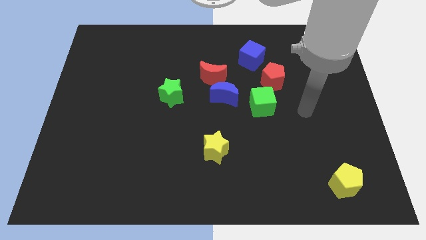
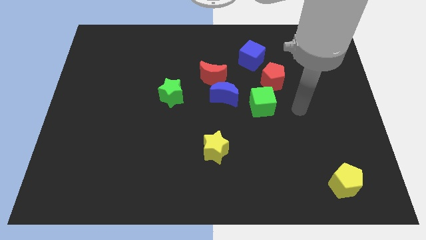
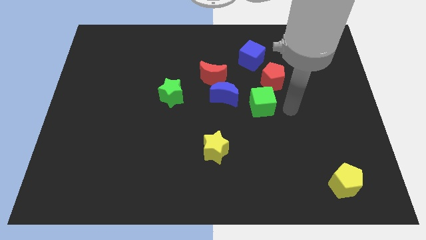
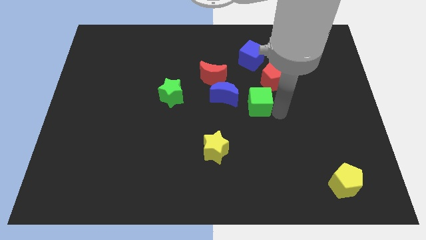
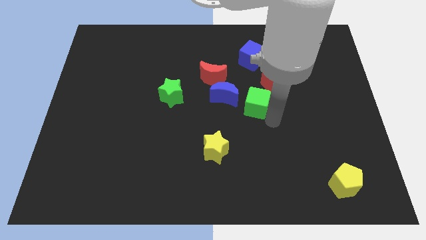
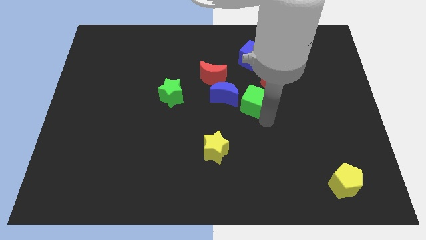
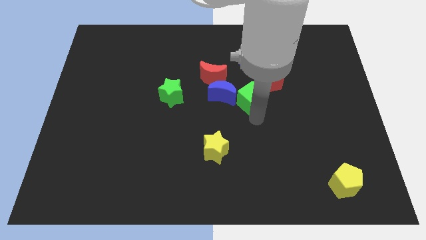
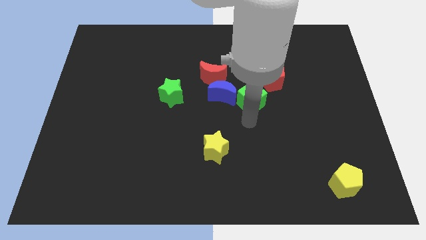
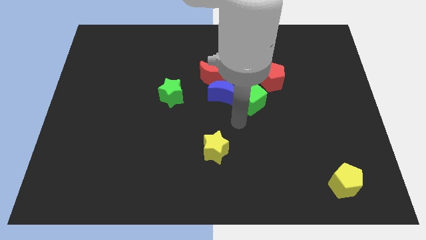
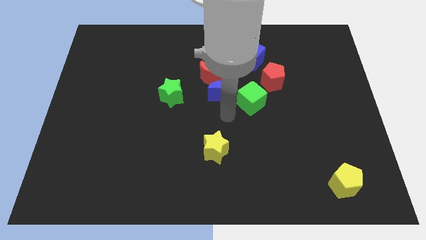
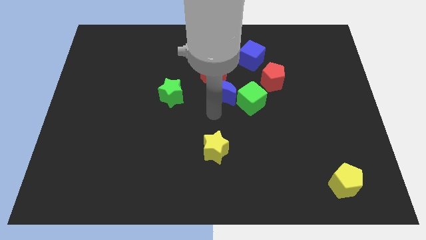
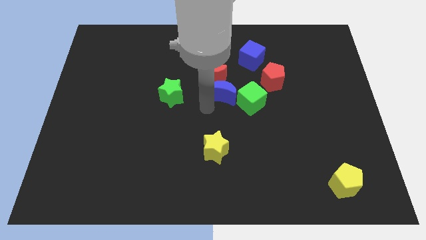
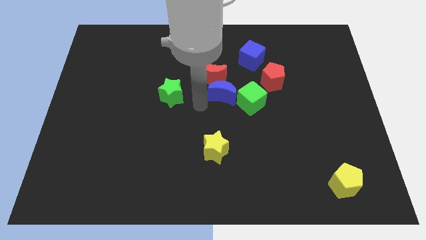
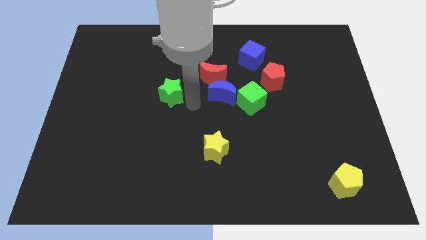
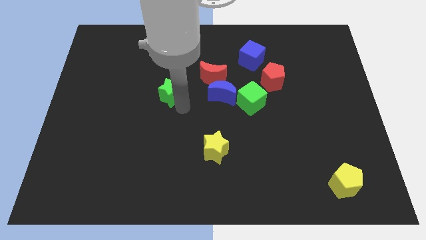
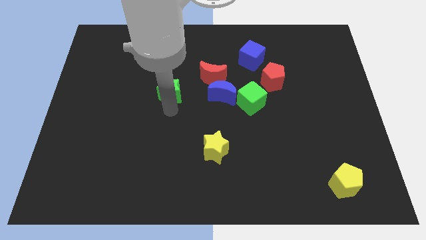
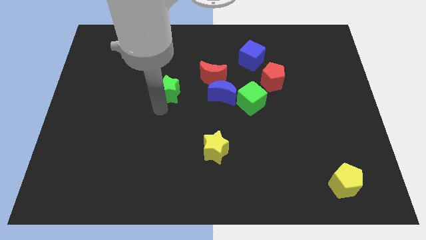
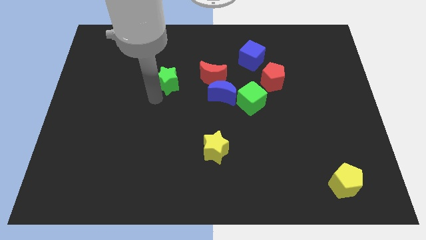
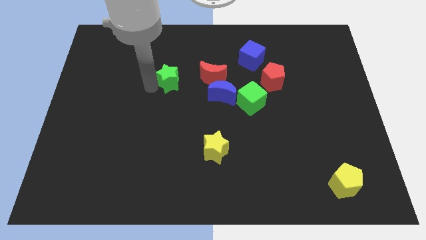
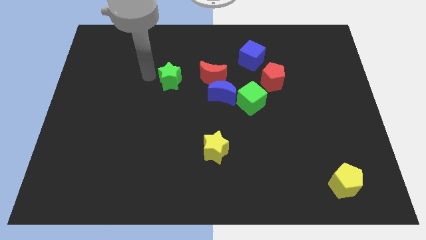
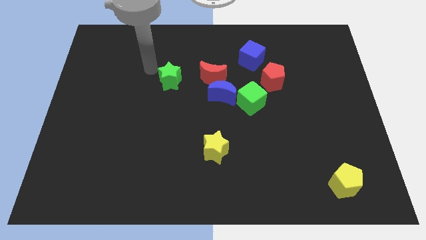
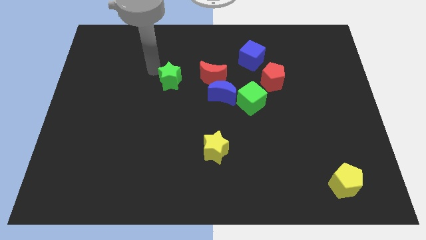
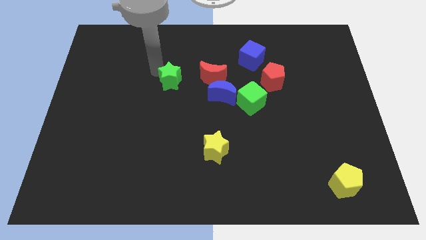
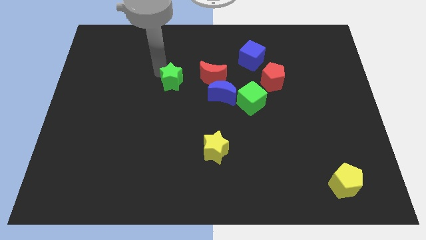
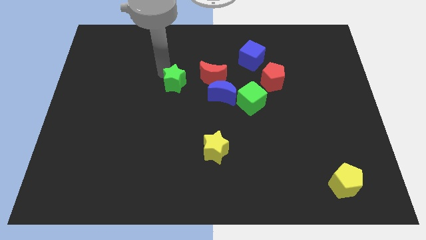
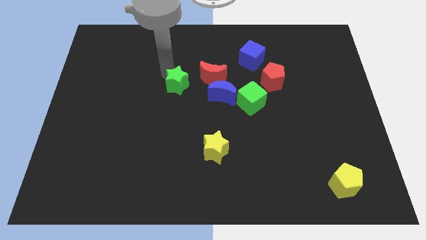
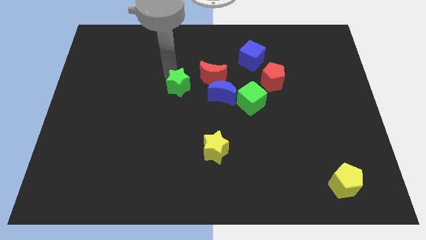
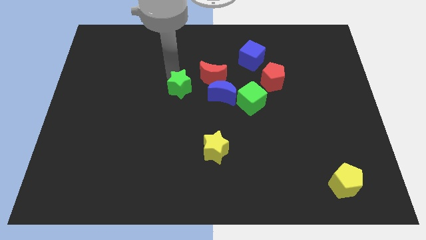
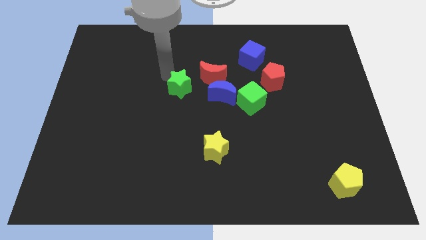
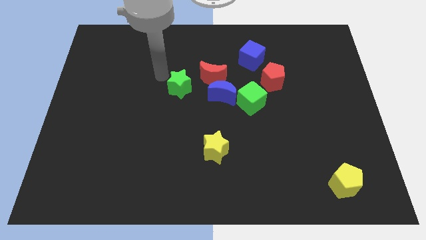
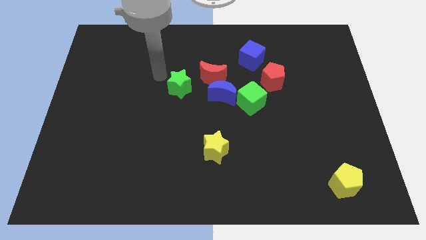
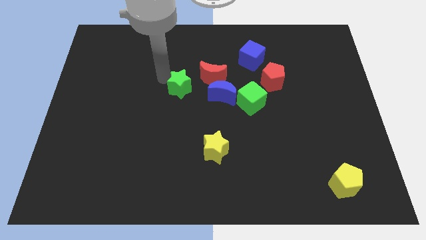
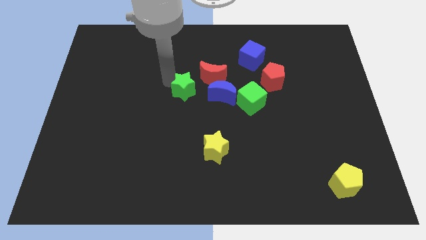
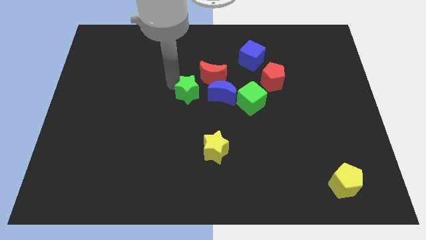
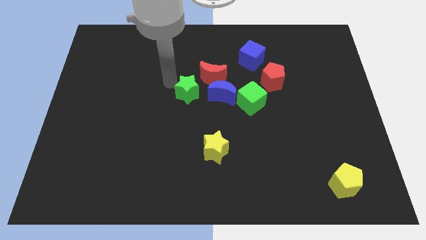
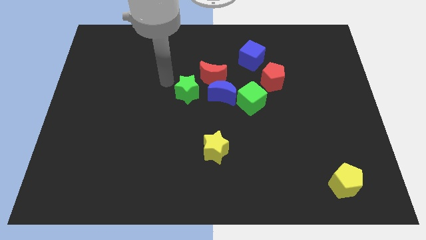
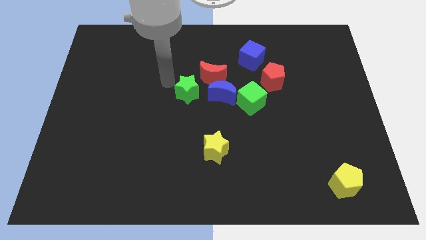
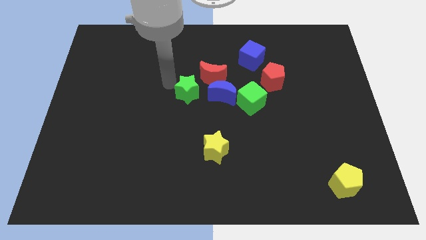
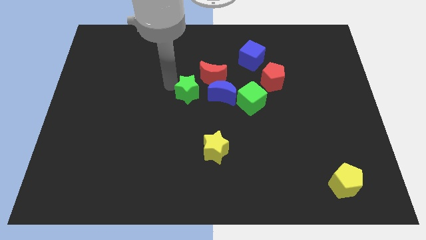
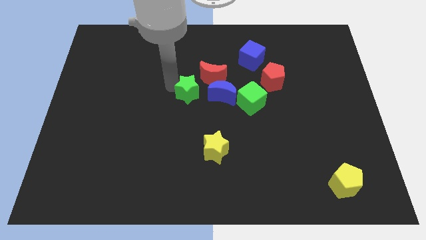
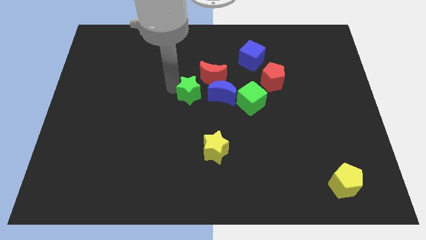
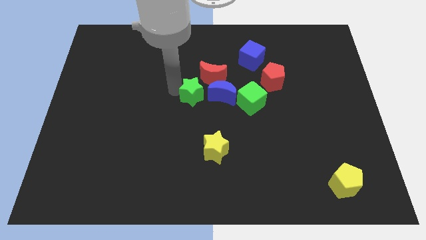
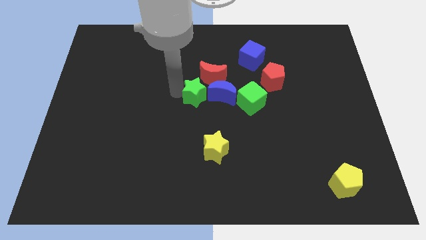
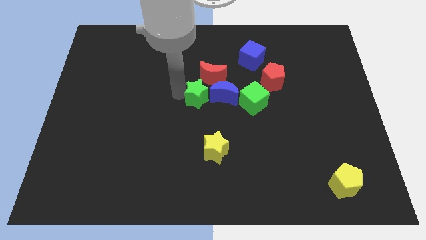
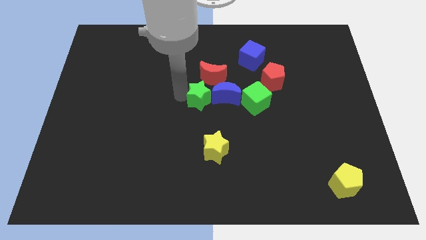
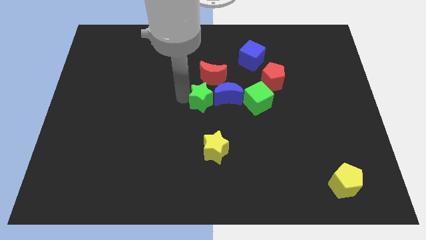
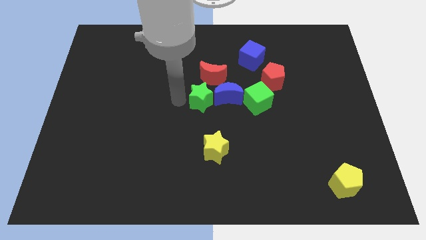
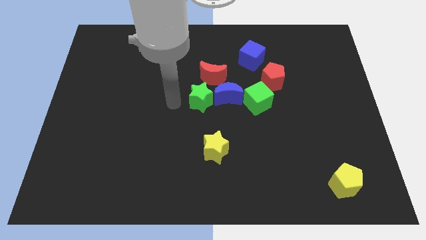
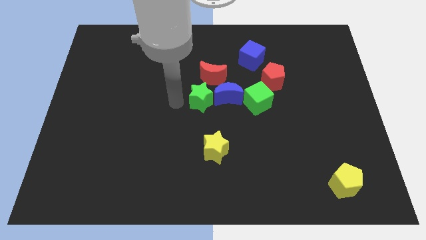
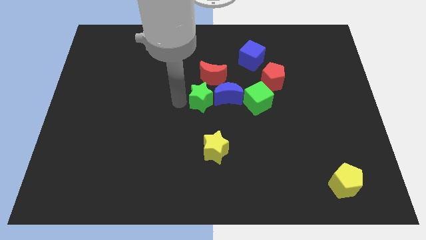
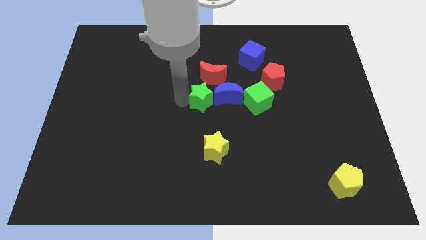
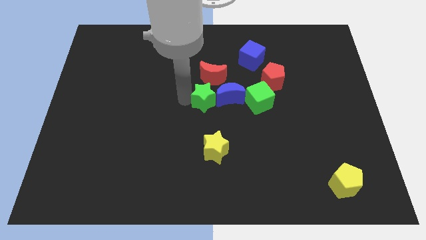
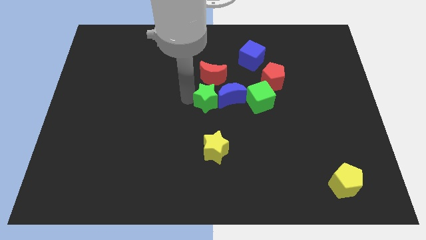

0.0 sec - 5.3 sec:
move the green star close to the blue moon

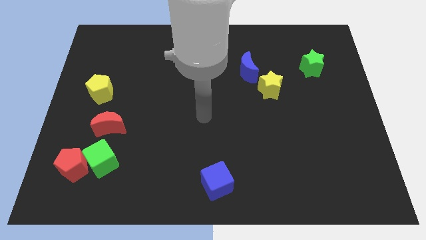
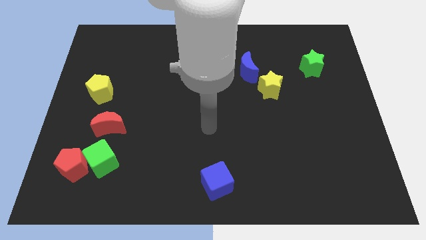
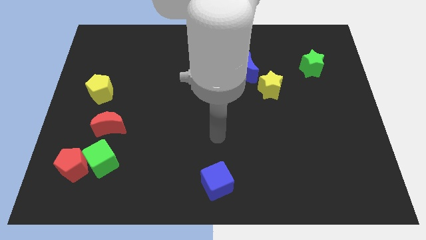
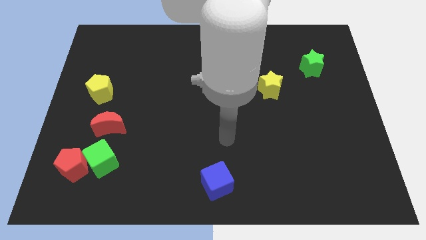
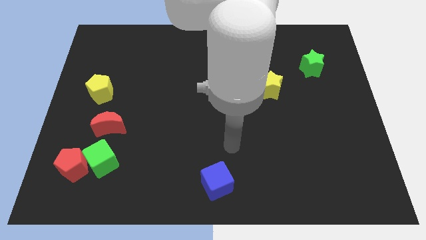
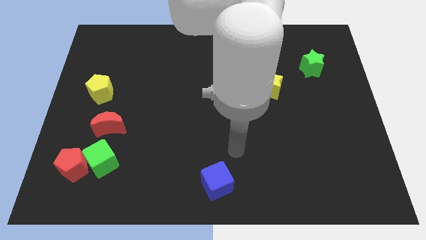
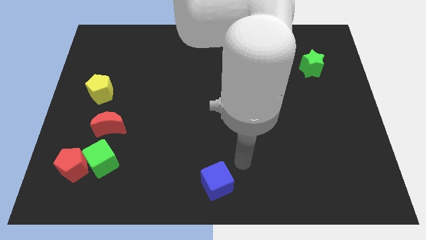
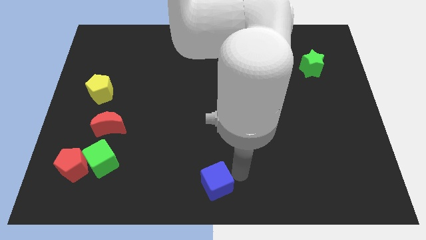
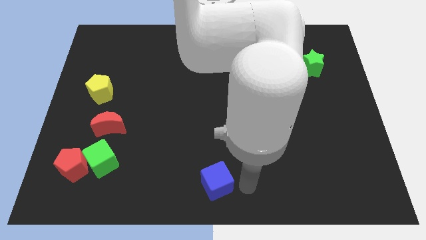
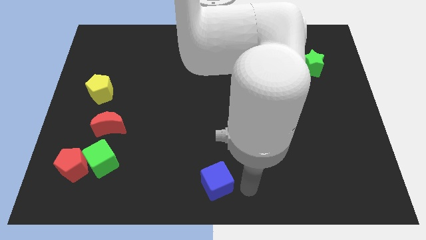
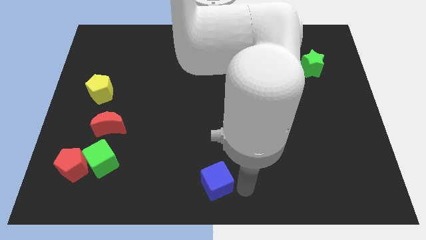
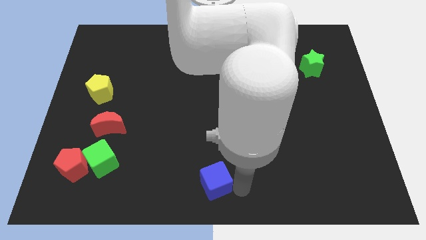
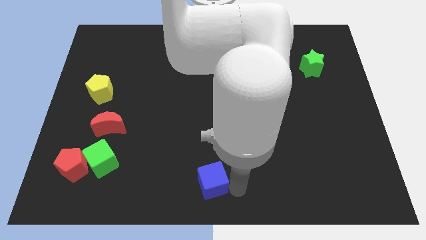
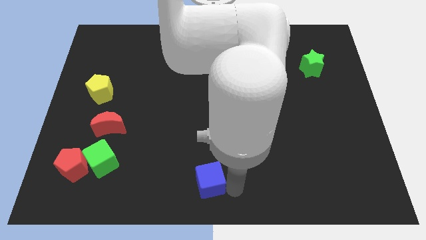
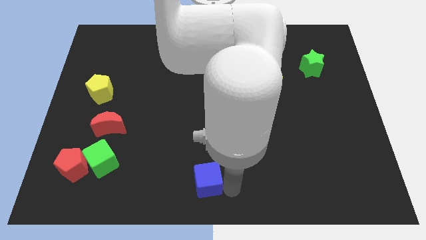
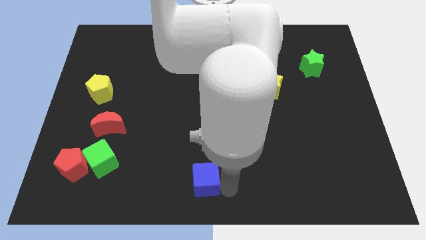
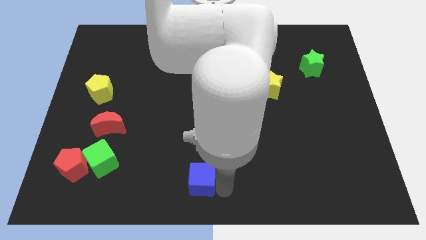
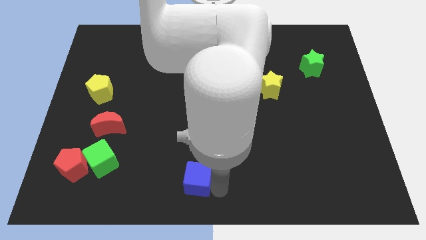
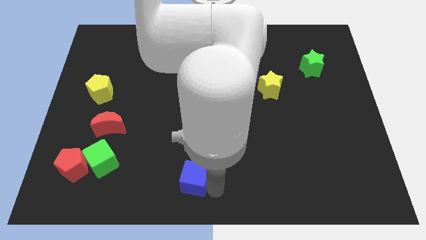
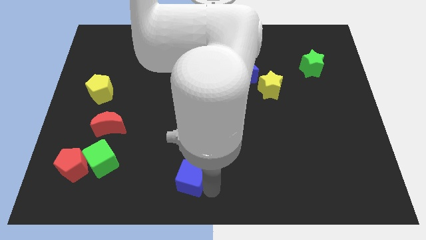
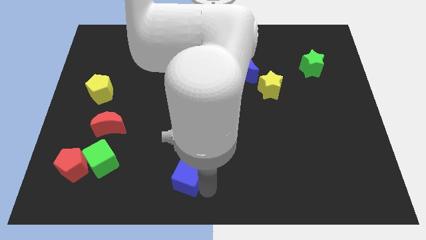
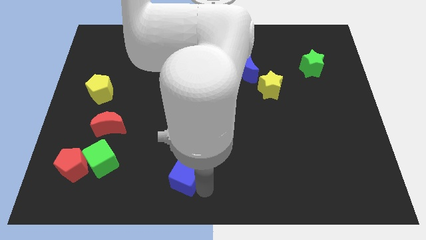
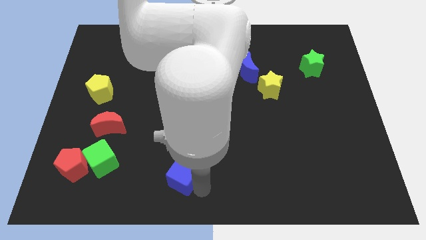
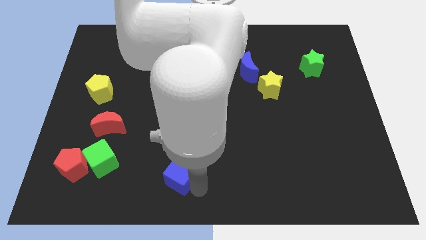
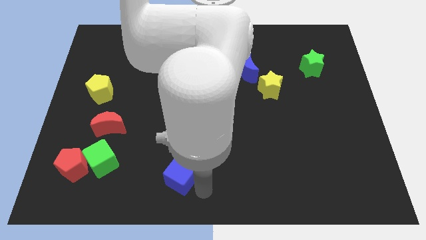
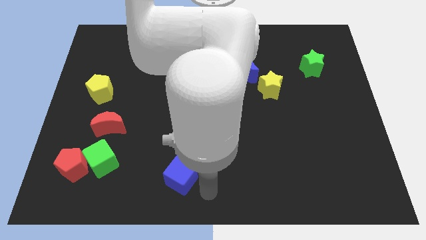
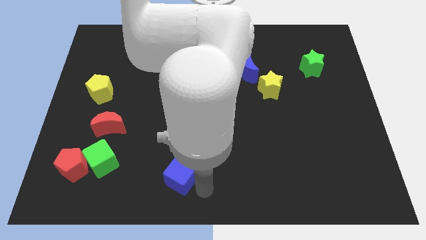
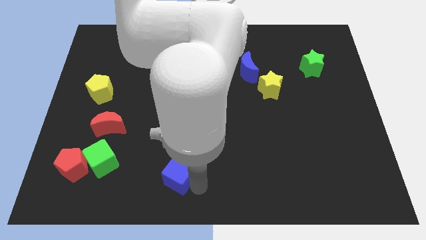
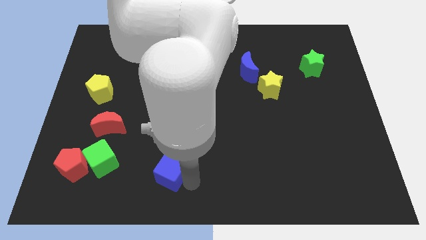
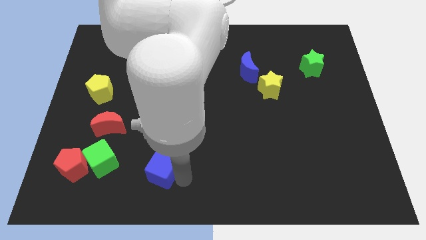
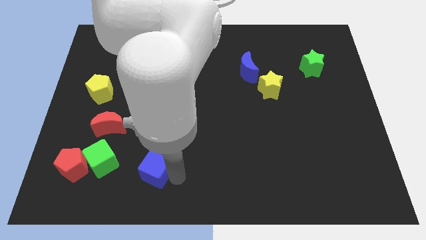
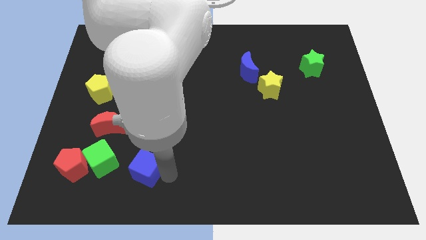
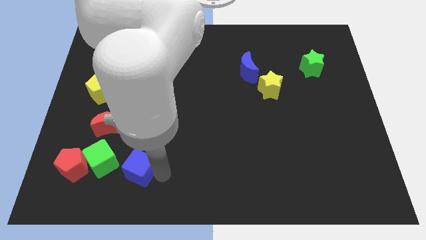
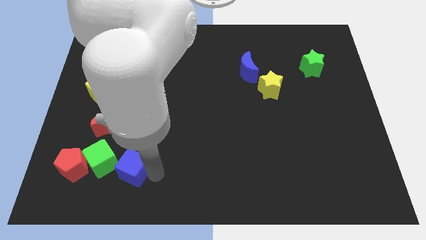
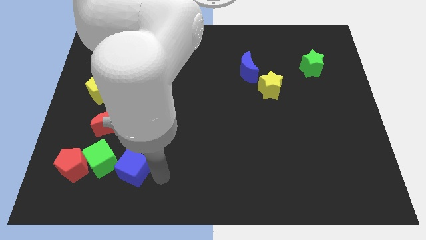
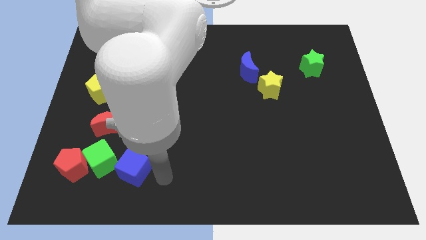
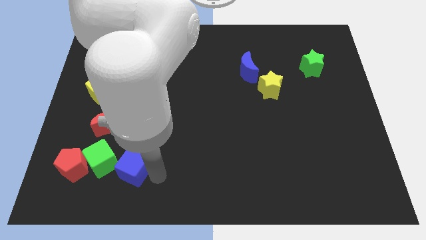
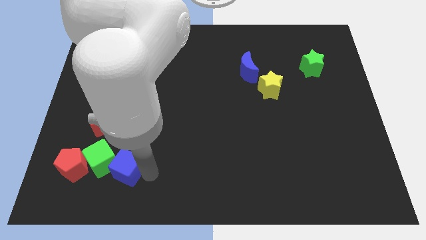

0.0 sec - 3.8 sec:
put the blue cube close to the green cube
